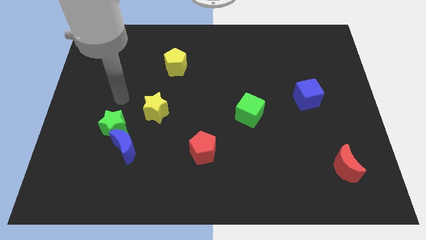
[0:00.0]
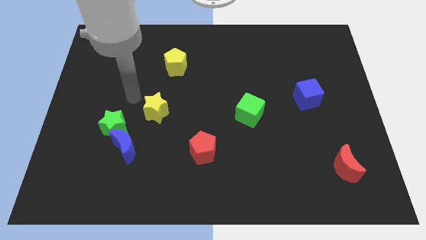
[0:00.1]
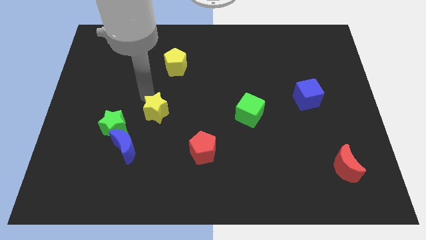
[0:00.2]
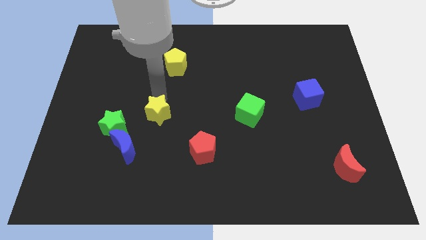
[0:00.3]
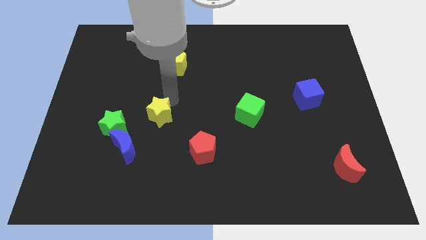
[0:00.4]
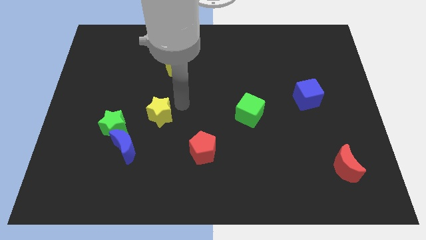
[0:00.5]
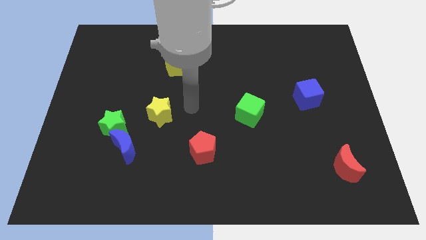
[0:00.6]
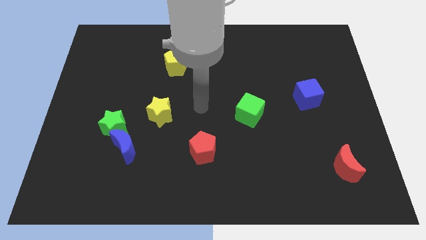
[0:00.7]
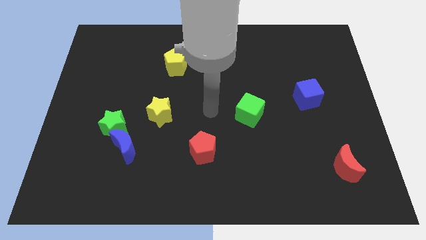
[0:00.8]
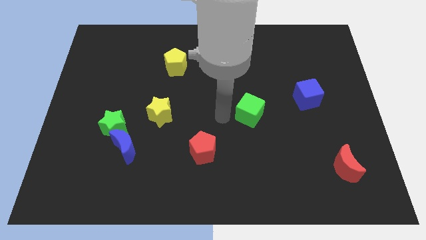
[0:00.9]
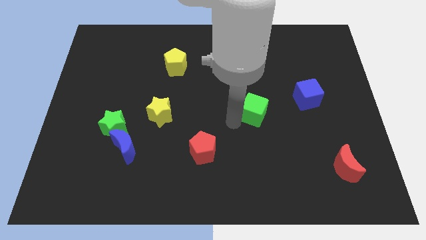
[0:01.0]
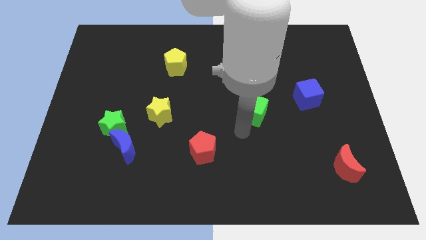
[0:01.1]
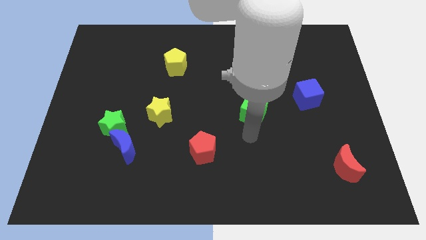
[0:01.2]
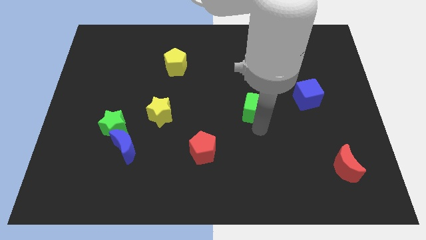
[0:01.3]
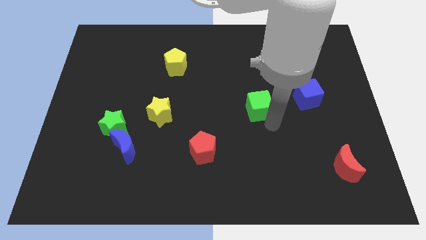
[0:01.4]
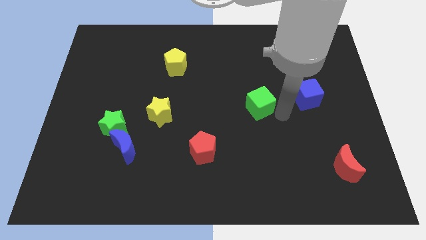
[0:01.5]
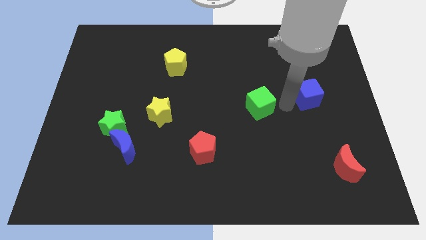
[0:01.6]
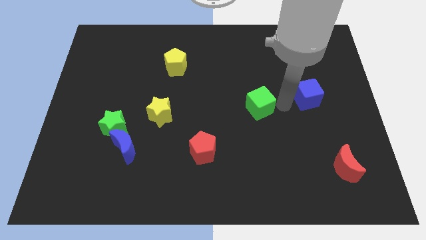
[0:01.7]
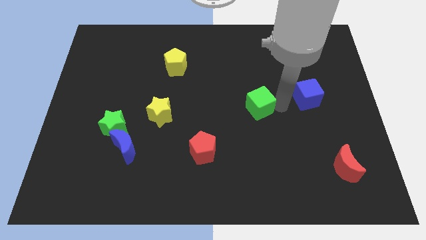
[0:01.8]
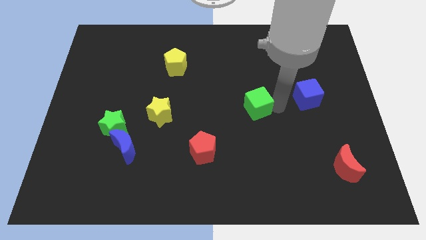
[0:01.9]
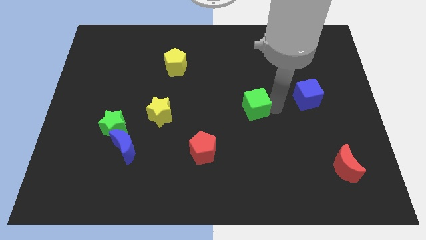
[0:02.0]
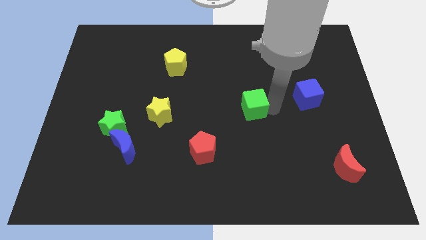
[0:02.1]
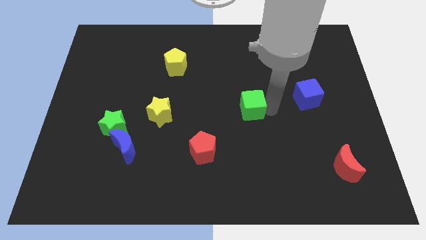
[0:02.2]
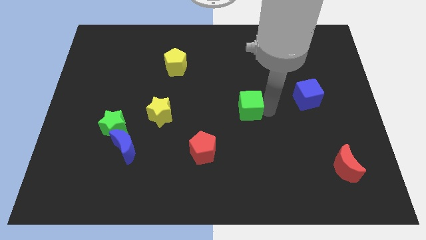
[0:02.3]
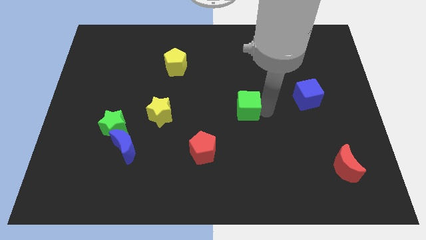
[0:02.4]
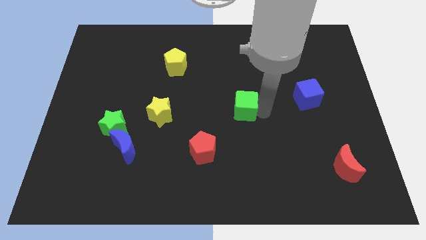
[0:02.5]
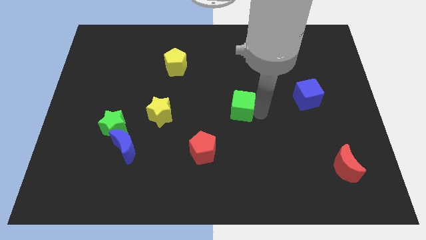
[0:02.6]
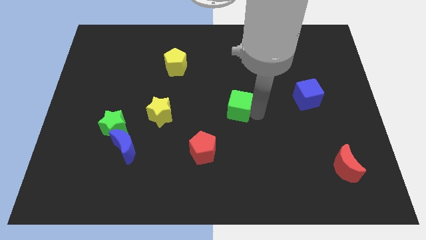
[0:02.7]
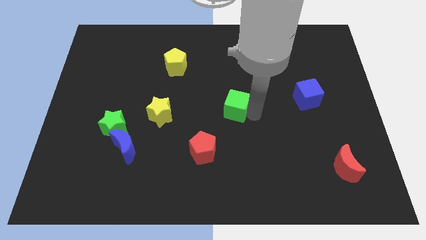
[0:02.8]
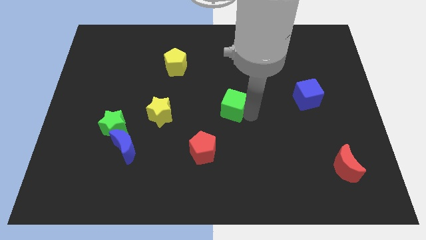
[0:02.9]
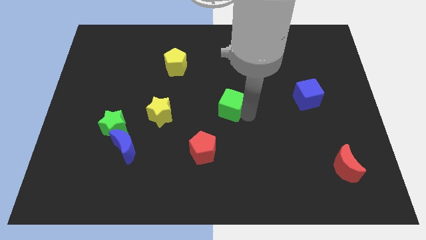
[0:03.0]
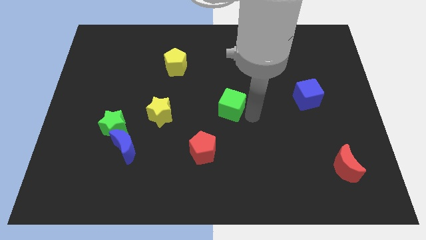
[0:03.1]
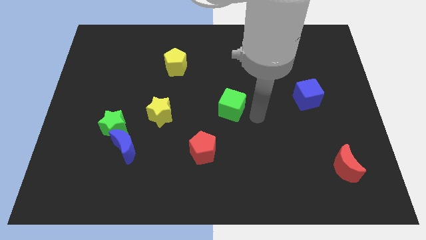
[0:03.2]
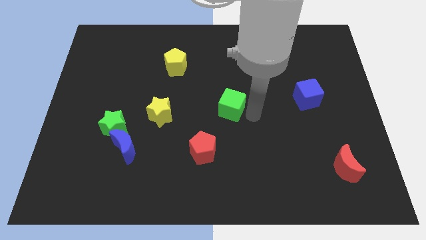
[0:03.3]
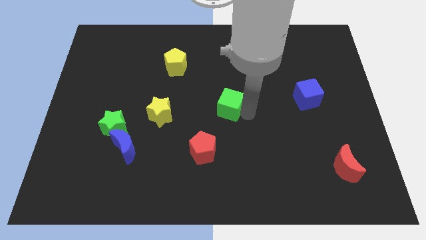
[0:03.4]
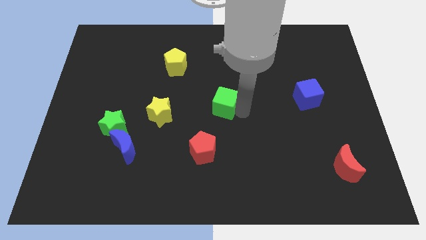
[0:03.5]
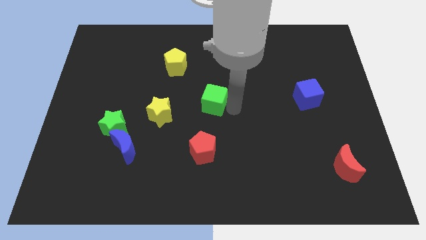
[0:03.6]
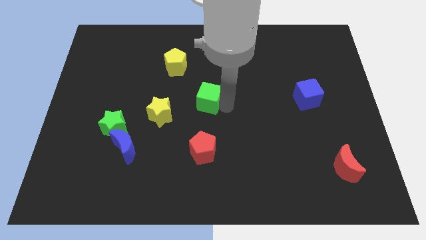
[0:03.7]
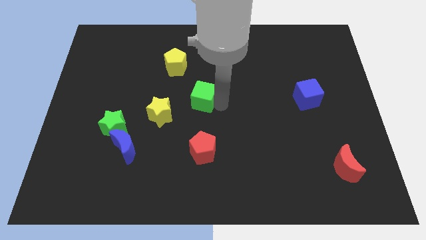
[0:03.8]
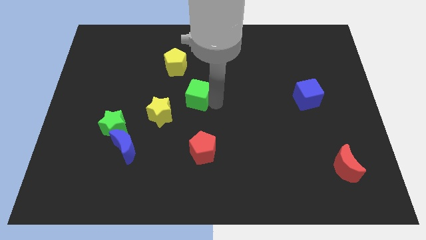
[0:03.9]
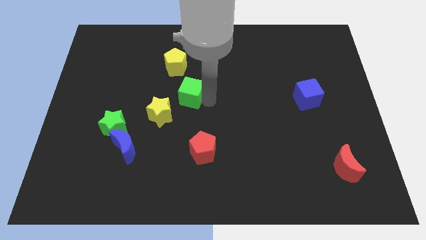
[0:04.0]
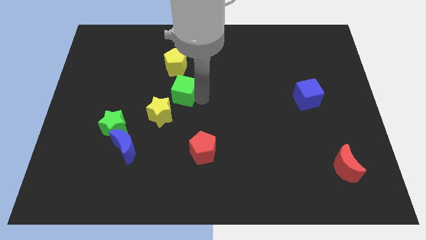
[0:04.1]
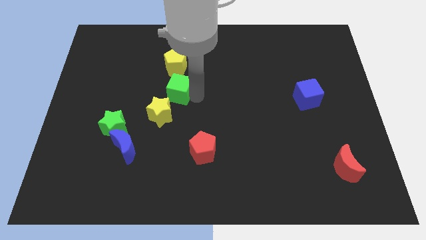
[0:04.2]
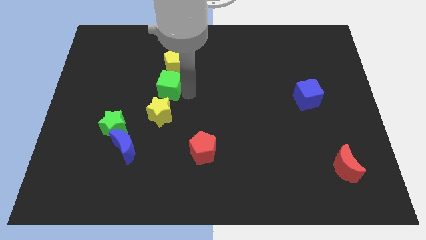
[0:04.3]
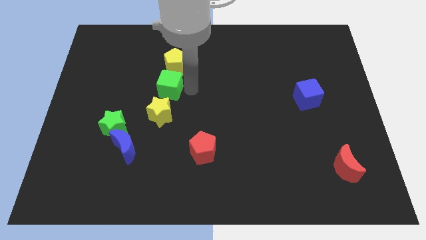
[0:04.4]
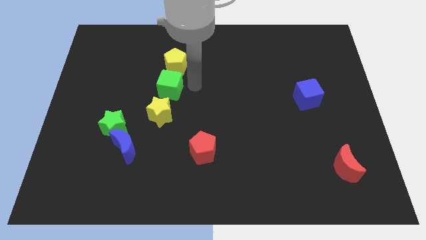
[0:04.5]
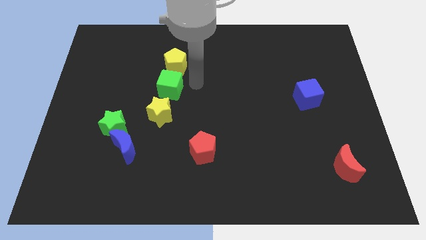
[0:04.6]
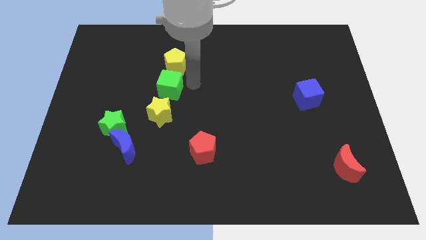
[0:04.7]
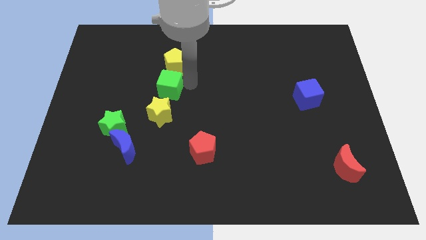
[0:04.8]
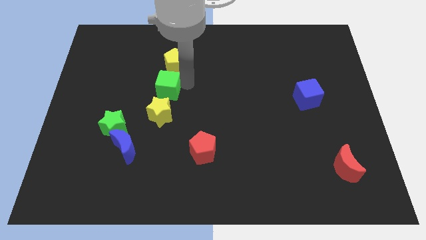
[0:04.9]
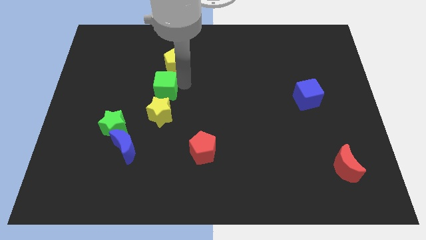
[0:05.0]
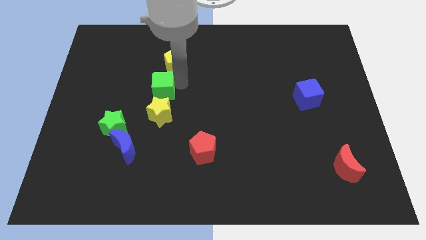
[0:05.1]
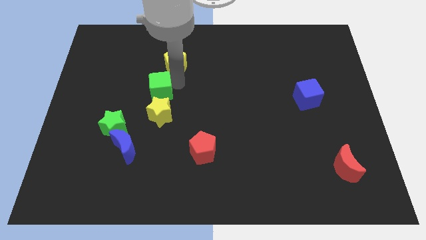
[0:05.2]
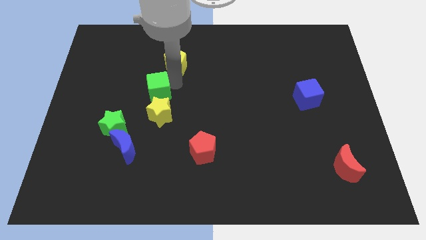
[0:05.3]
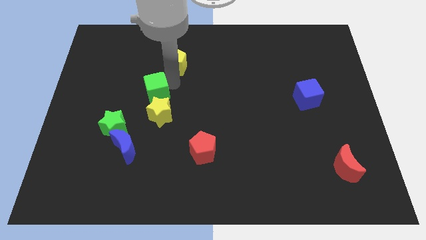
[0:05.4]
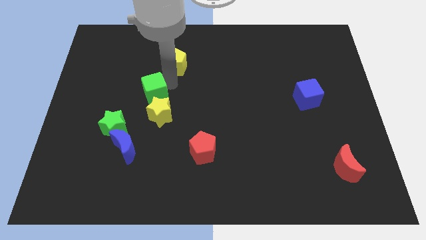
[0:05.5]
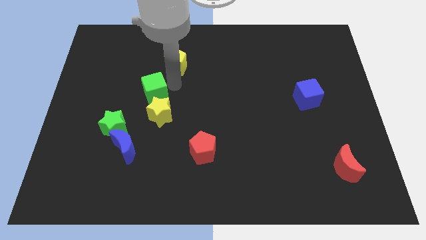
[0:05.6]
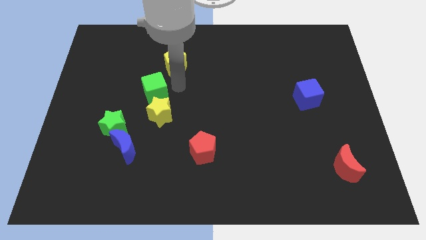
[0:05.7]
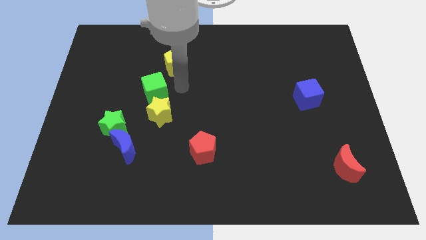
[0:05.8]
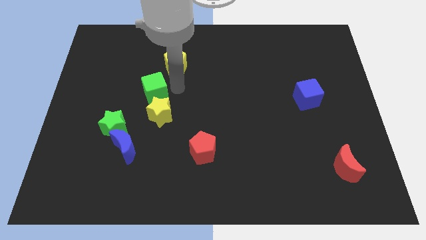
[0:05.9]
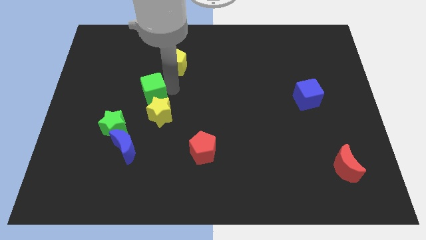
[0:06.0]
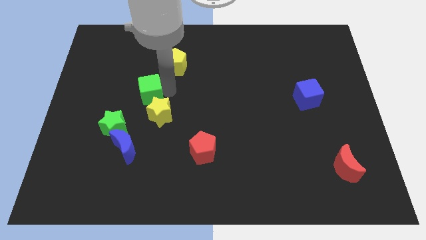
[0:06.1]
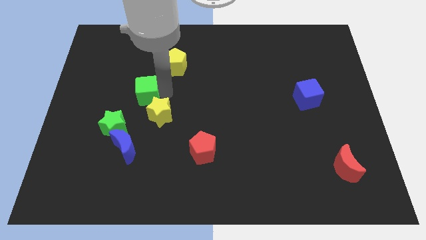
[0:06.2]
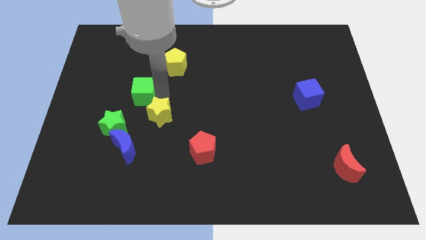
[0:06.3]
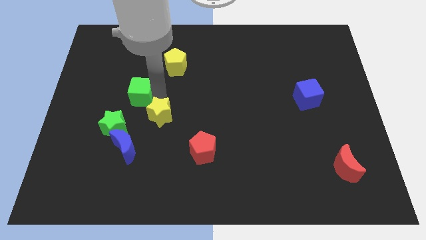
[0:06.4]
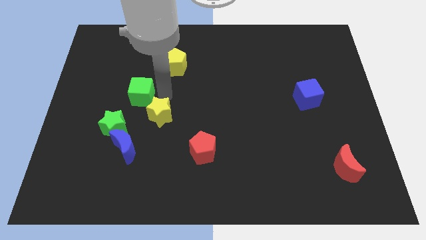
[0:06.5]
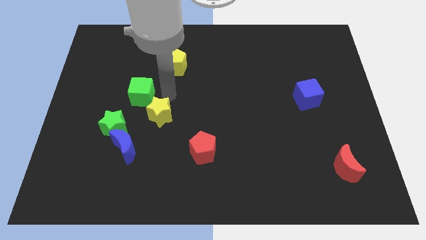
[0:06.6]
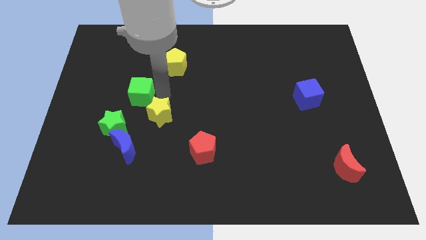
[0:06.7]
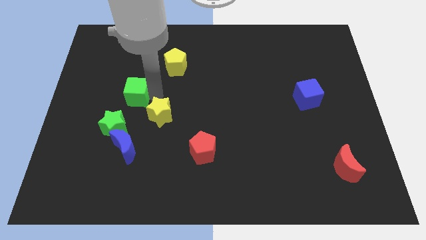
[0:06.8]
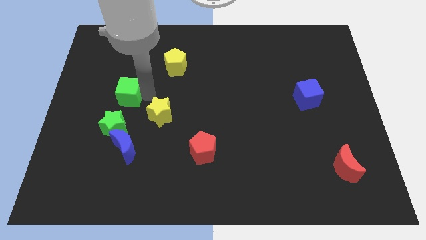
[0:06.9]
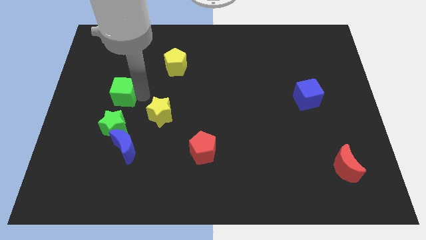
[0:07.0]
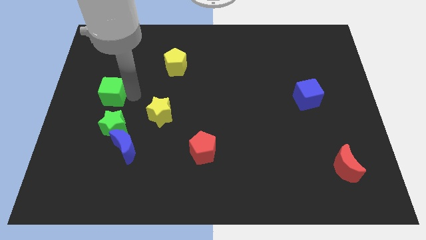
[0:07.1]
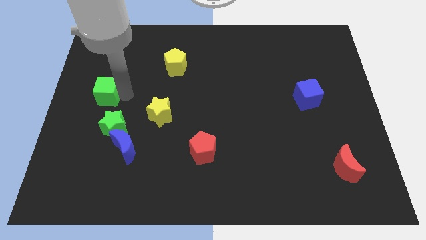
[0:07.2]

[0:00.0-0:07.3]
push the green cube to the center left
